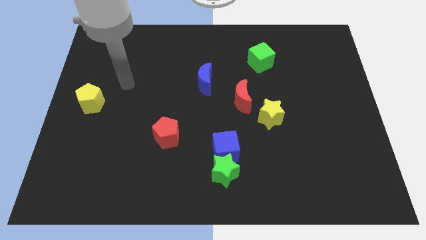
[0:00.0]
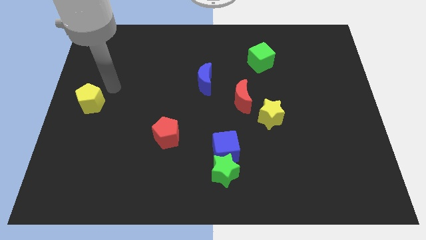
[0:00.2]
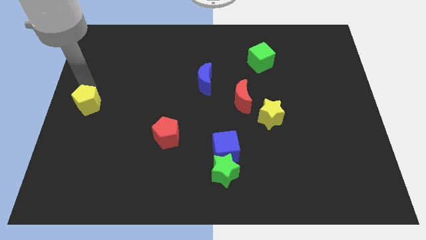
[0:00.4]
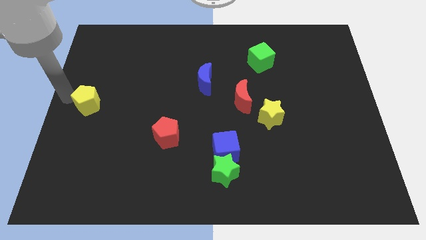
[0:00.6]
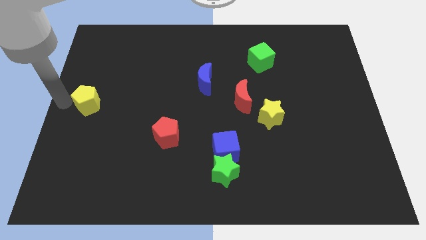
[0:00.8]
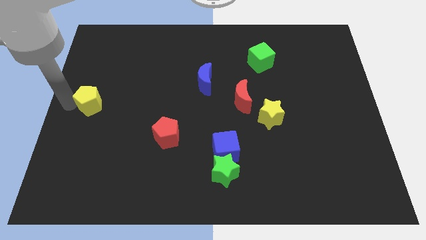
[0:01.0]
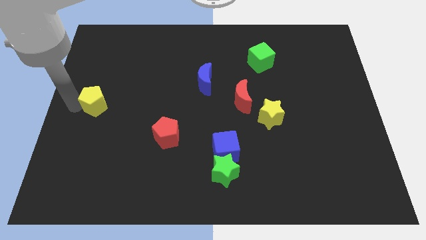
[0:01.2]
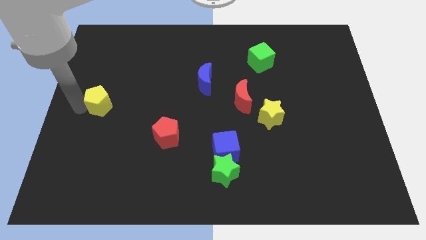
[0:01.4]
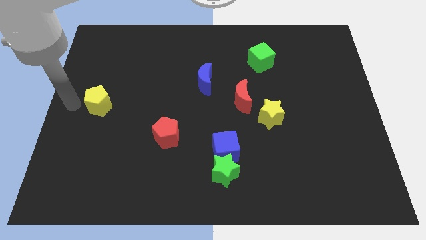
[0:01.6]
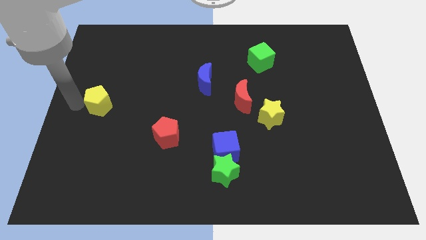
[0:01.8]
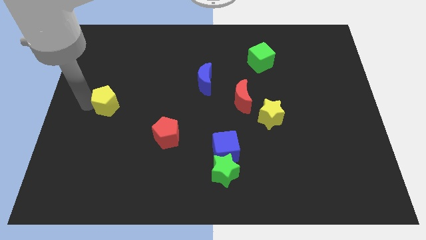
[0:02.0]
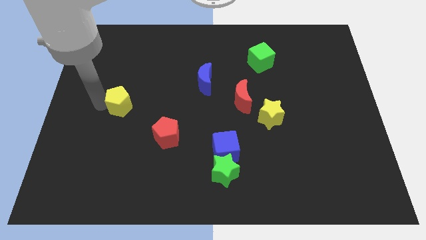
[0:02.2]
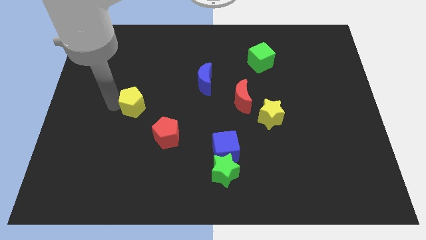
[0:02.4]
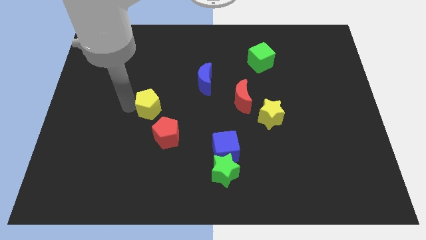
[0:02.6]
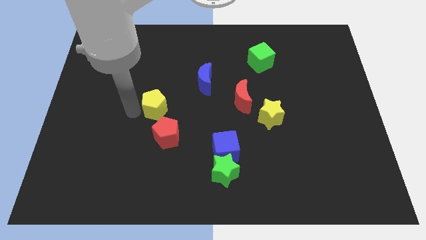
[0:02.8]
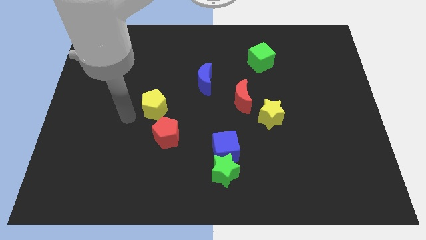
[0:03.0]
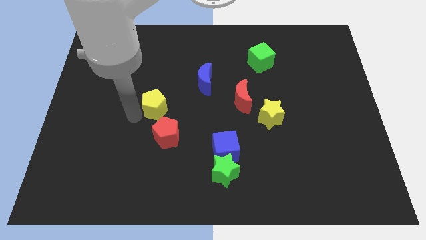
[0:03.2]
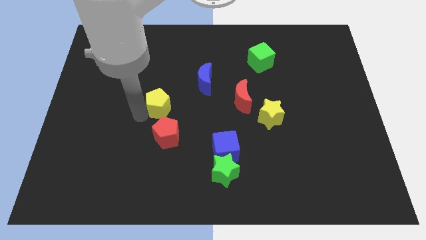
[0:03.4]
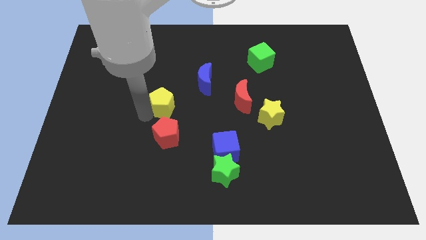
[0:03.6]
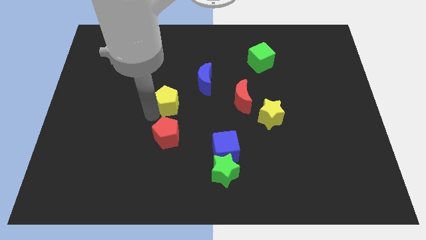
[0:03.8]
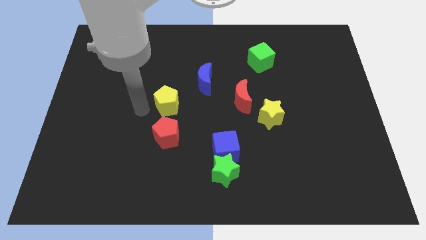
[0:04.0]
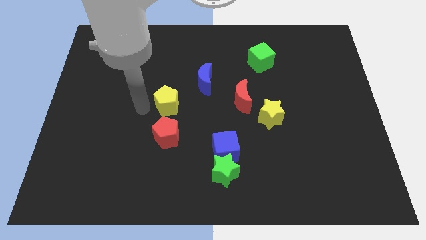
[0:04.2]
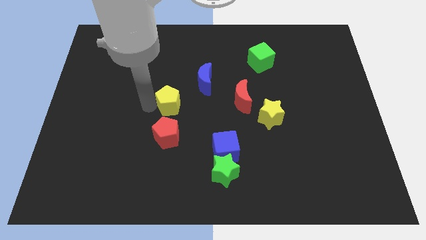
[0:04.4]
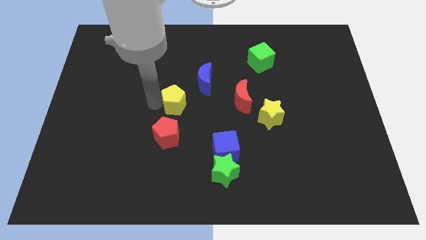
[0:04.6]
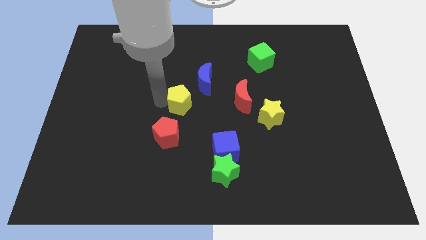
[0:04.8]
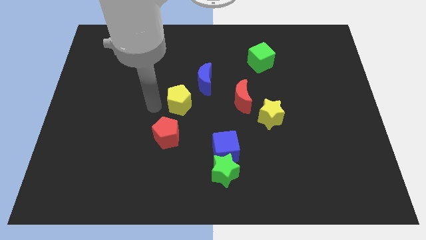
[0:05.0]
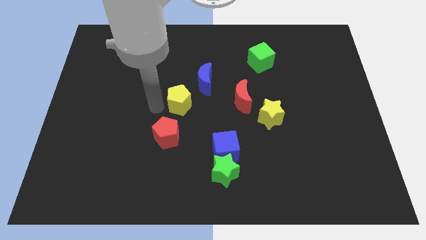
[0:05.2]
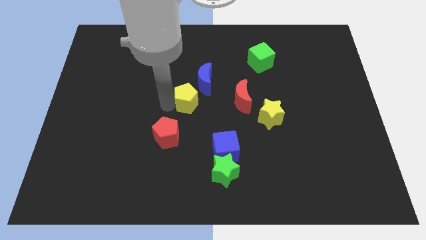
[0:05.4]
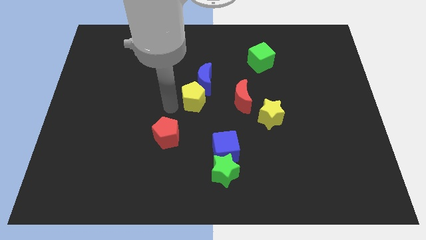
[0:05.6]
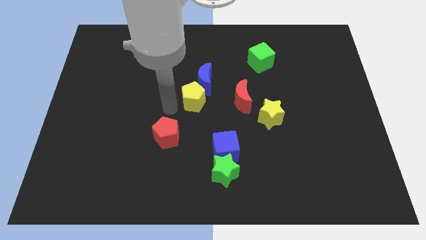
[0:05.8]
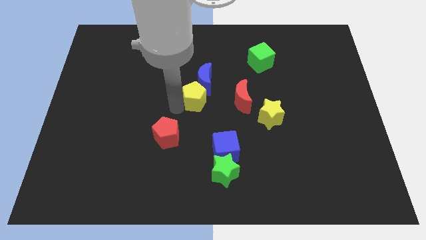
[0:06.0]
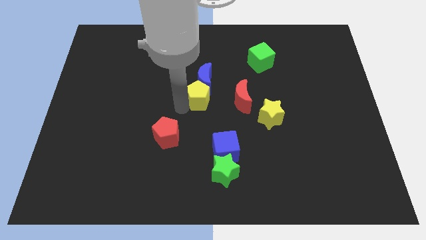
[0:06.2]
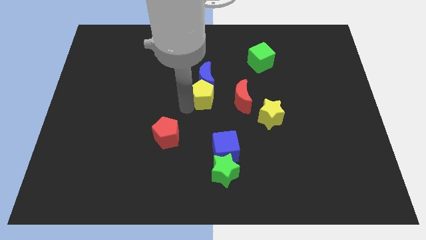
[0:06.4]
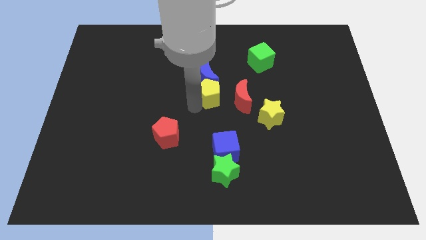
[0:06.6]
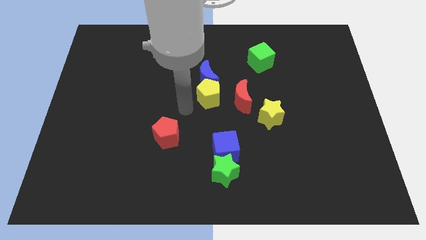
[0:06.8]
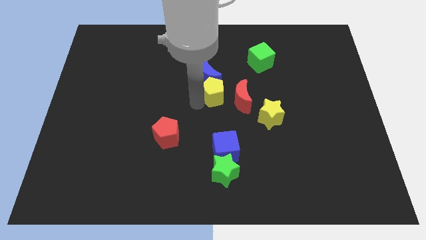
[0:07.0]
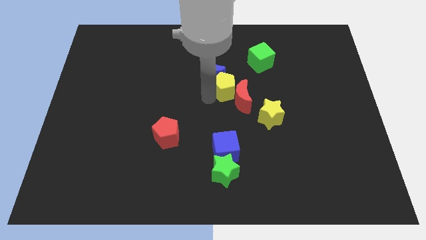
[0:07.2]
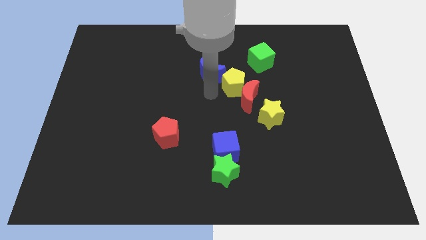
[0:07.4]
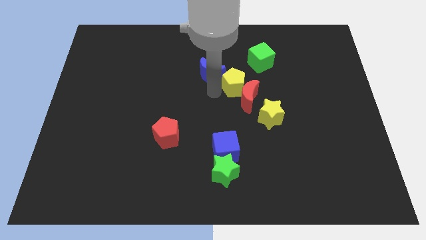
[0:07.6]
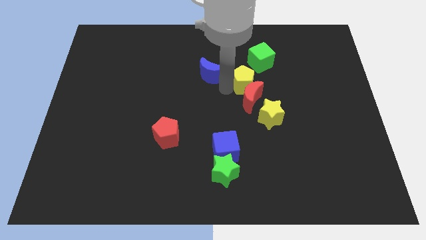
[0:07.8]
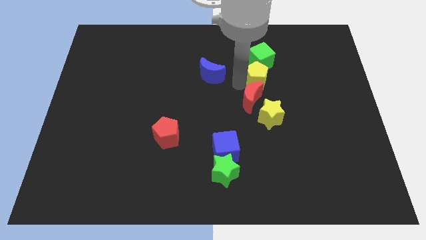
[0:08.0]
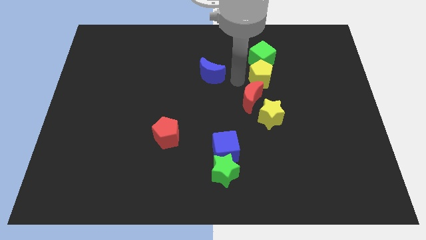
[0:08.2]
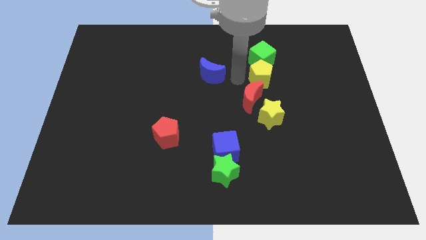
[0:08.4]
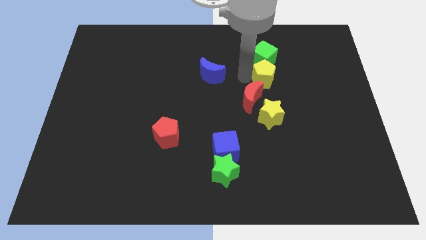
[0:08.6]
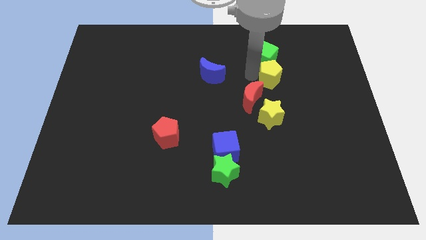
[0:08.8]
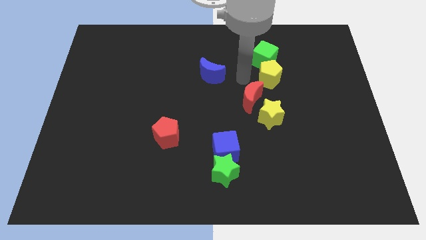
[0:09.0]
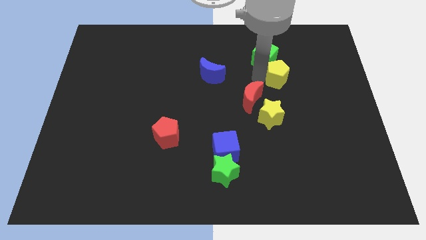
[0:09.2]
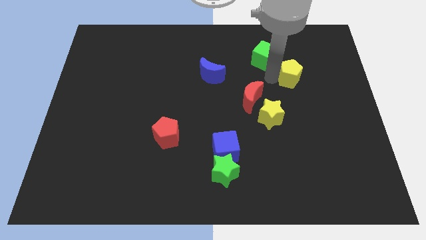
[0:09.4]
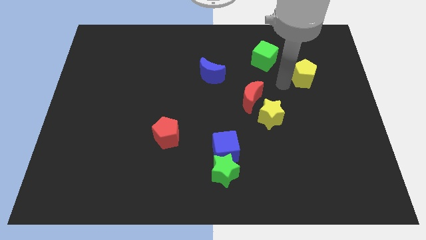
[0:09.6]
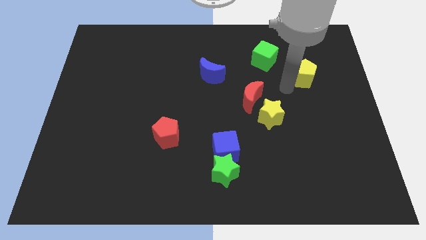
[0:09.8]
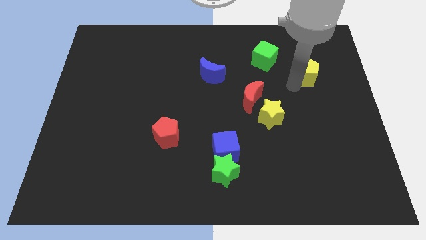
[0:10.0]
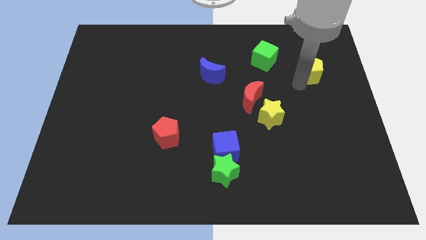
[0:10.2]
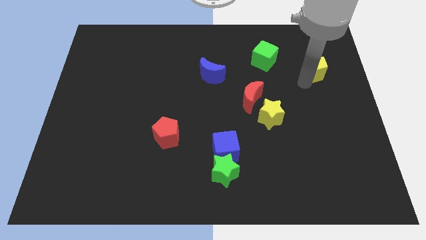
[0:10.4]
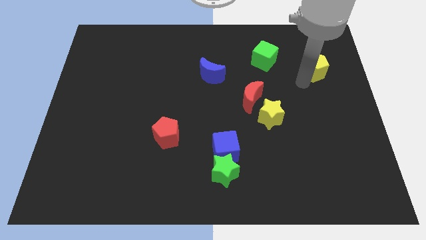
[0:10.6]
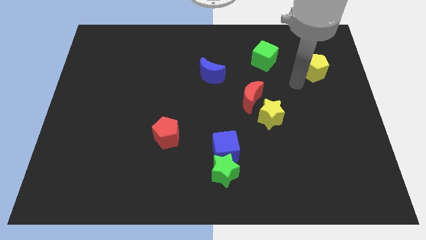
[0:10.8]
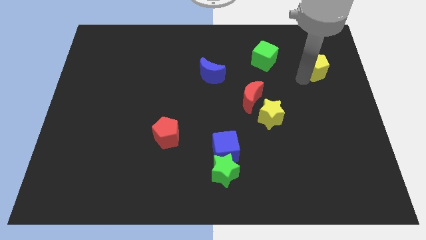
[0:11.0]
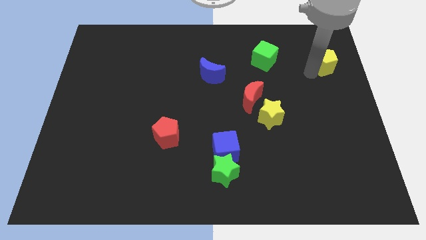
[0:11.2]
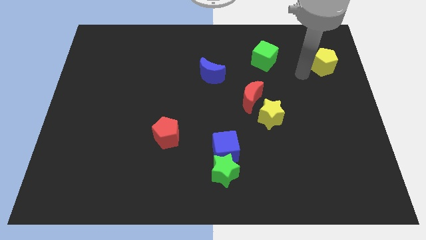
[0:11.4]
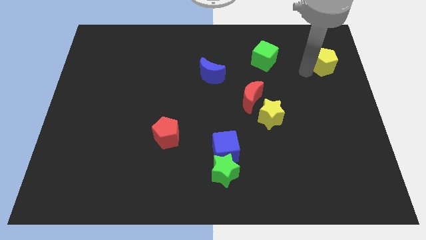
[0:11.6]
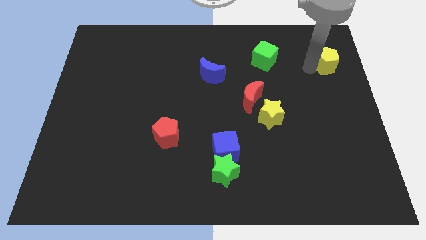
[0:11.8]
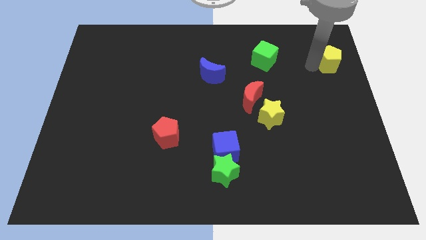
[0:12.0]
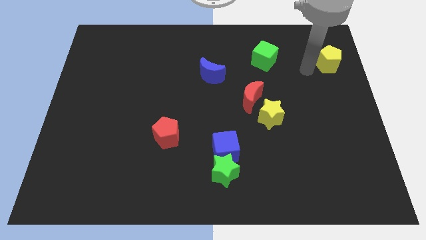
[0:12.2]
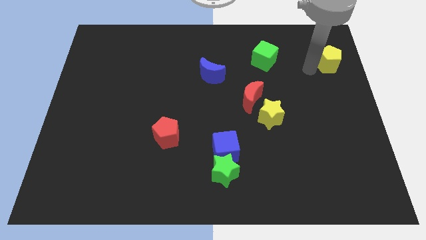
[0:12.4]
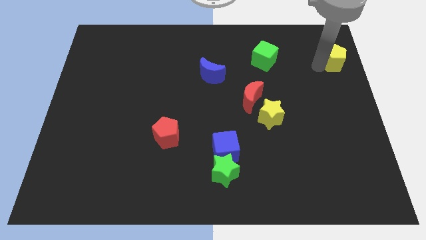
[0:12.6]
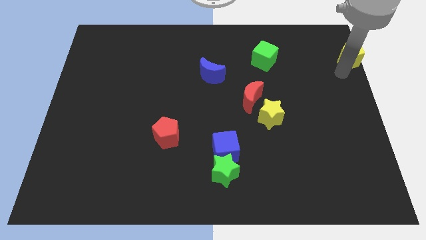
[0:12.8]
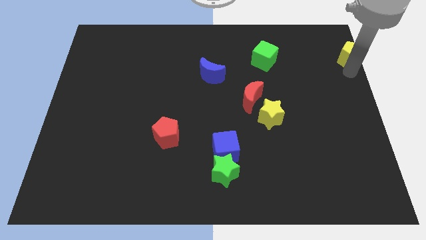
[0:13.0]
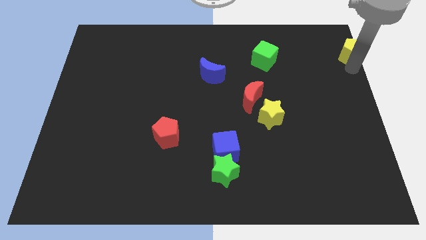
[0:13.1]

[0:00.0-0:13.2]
move the yellow pentagon to the top right of the board
